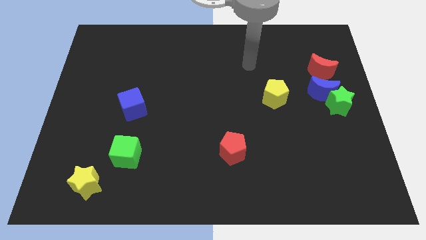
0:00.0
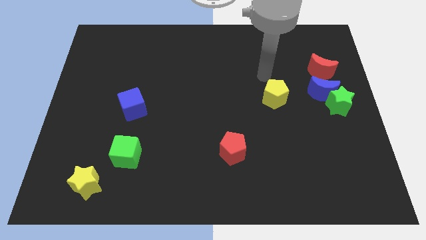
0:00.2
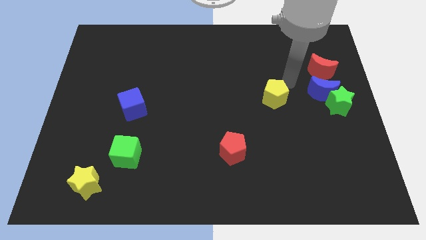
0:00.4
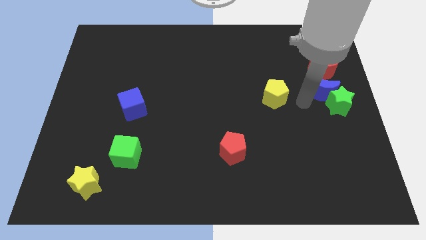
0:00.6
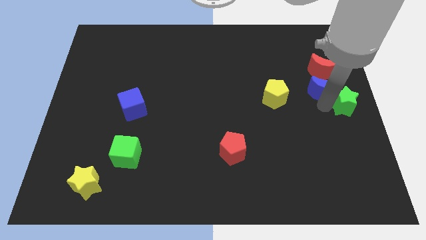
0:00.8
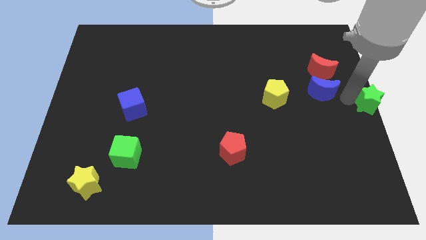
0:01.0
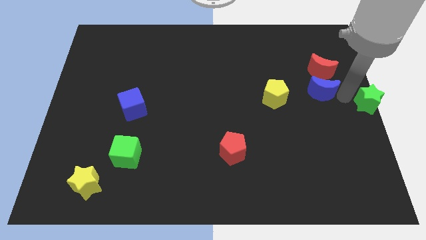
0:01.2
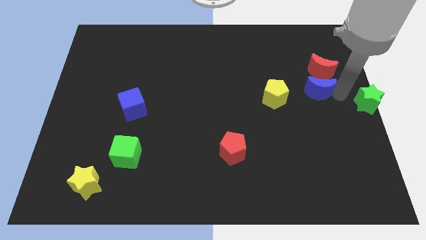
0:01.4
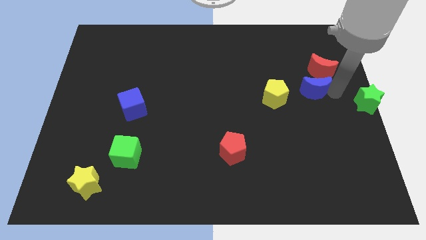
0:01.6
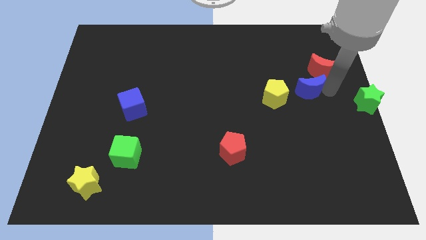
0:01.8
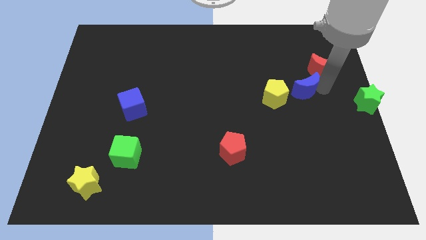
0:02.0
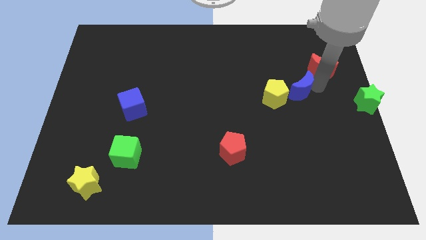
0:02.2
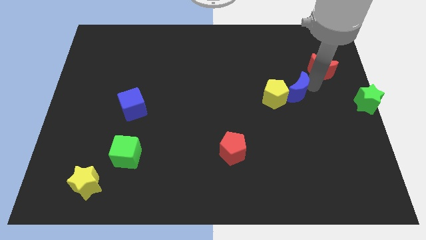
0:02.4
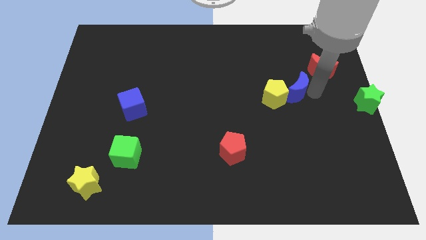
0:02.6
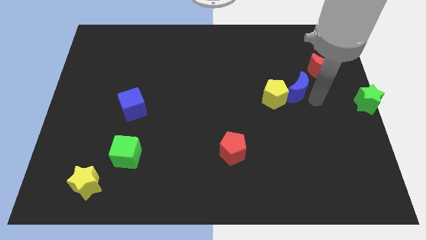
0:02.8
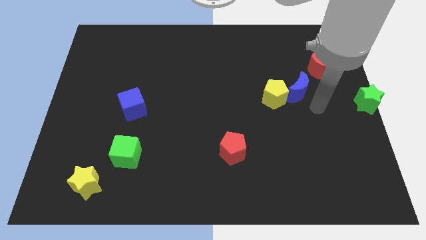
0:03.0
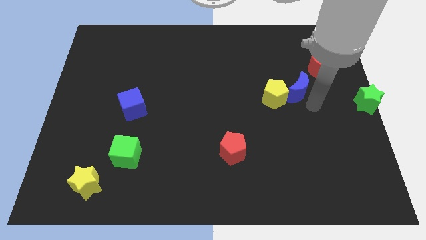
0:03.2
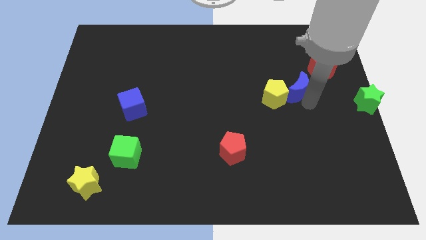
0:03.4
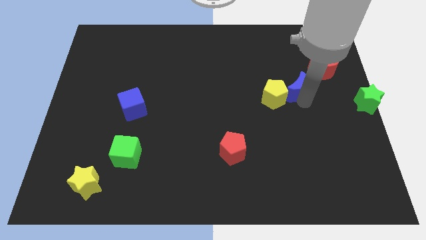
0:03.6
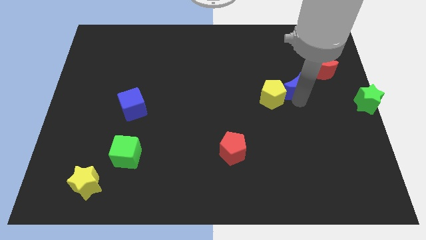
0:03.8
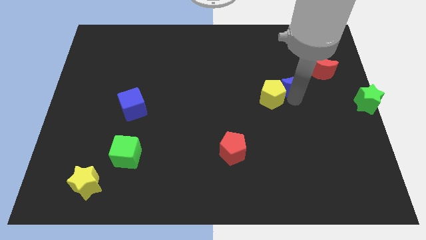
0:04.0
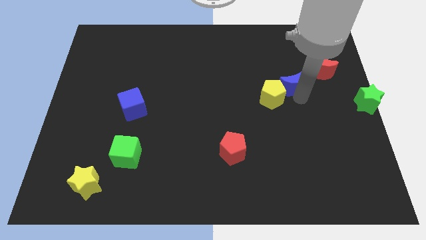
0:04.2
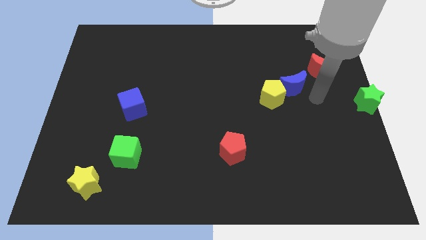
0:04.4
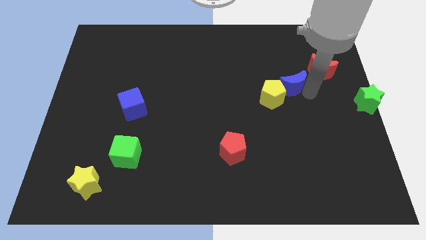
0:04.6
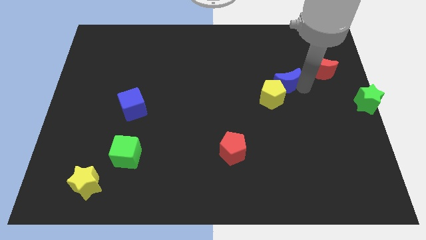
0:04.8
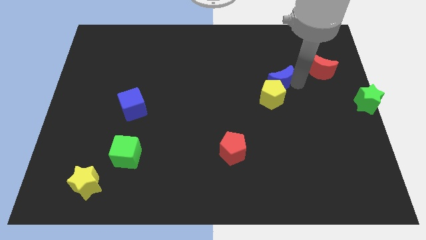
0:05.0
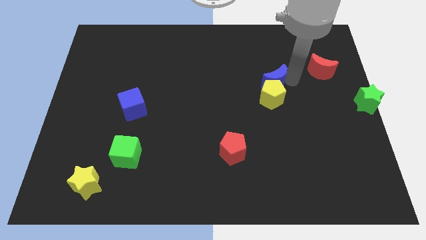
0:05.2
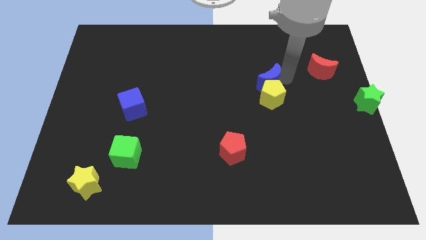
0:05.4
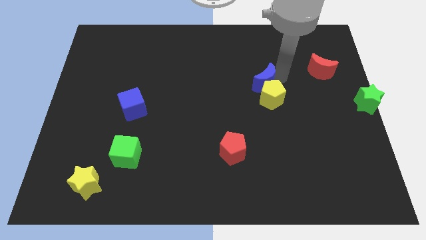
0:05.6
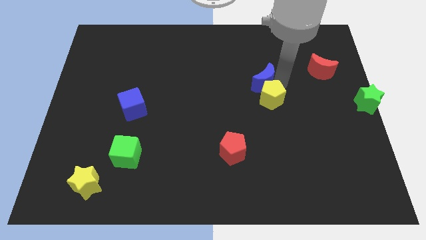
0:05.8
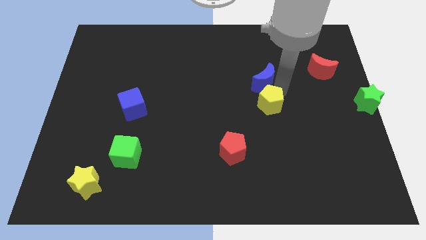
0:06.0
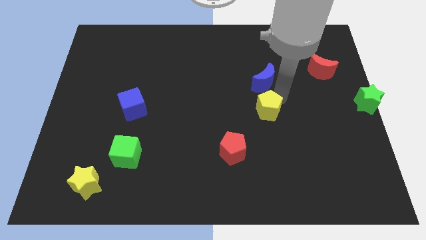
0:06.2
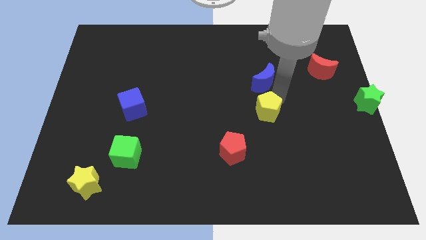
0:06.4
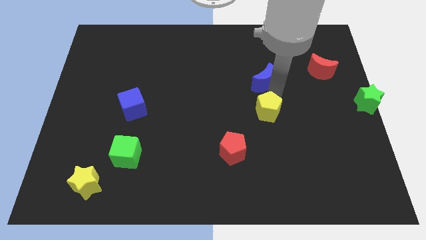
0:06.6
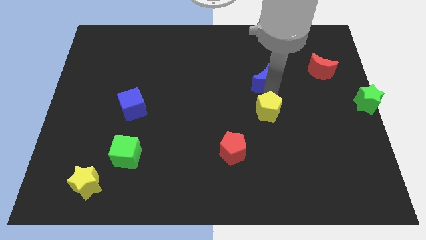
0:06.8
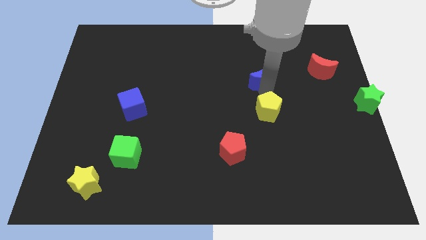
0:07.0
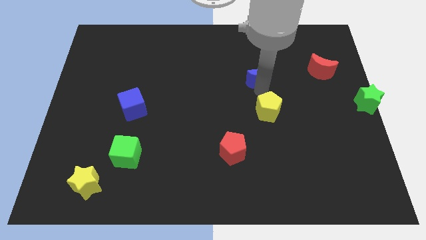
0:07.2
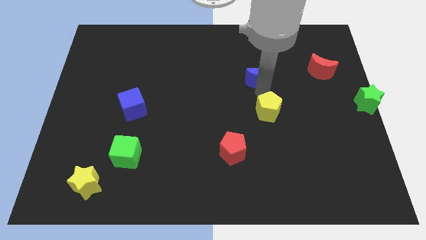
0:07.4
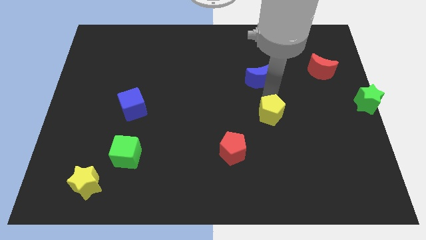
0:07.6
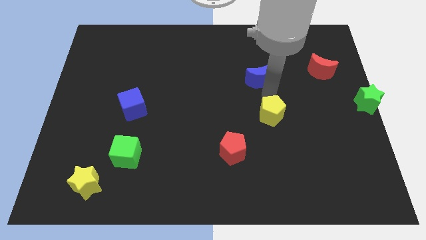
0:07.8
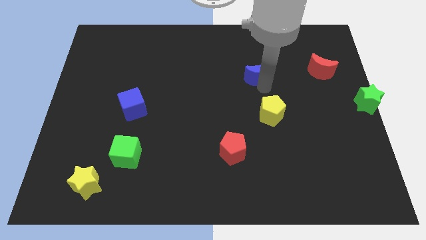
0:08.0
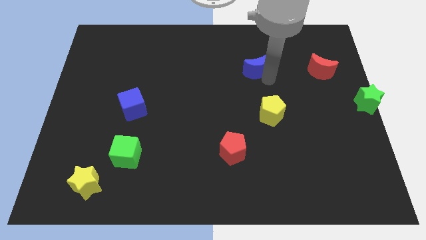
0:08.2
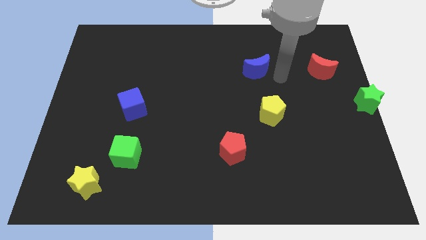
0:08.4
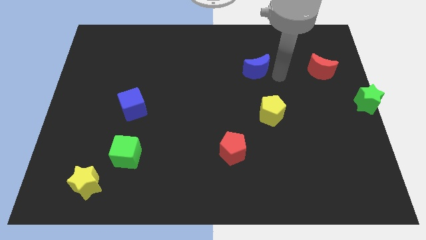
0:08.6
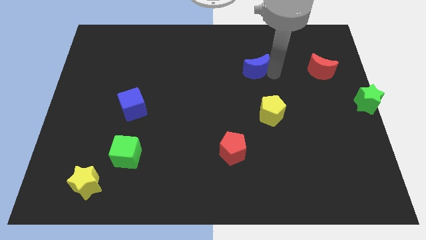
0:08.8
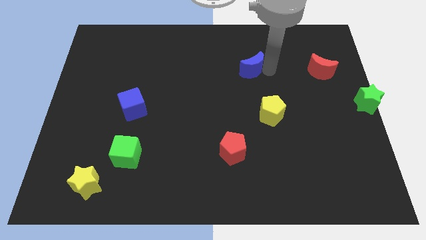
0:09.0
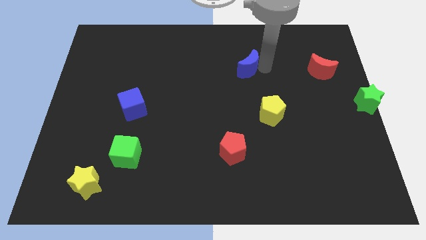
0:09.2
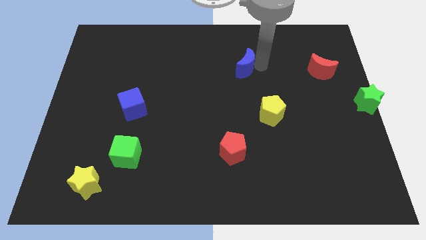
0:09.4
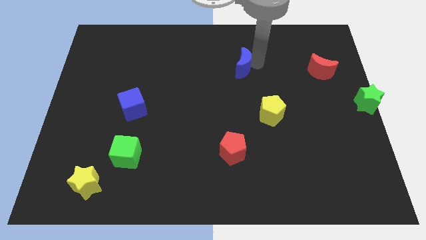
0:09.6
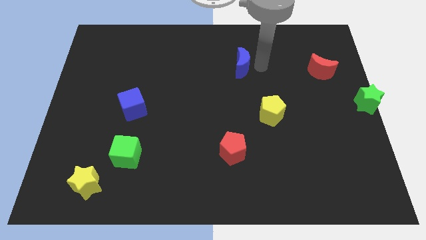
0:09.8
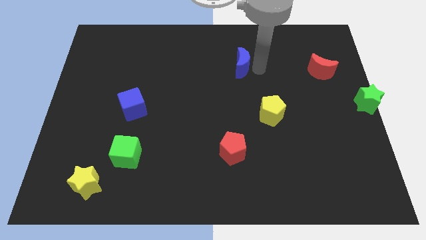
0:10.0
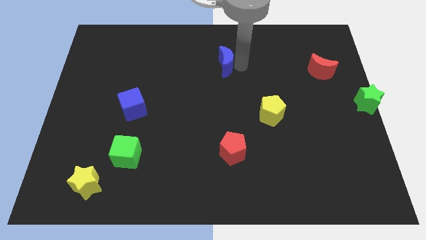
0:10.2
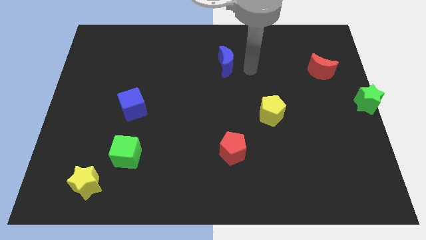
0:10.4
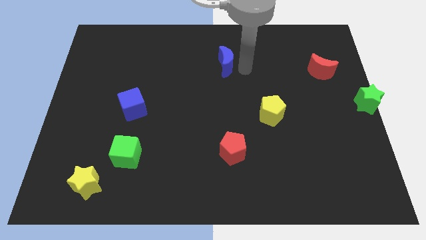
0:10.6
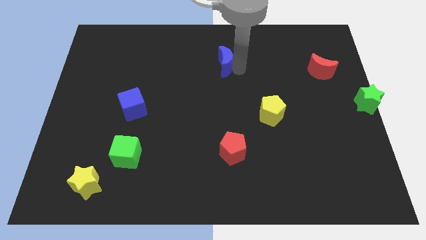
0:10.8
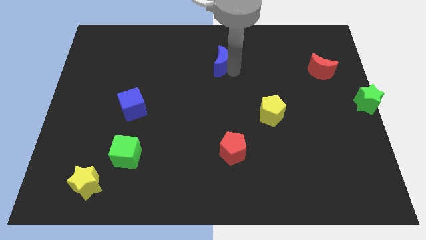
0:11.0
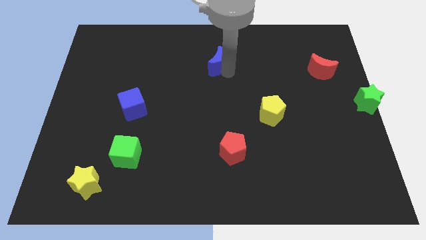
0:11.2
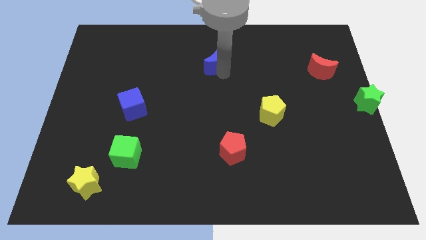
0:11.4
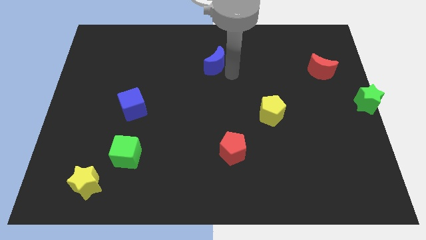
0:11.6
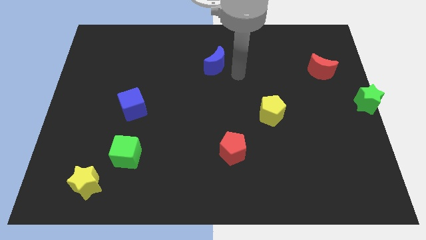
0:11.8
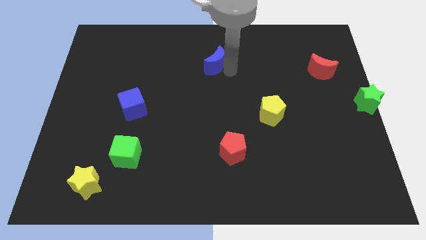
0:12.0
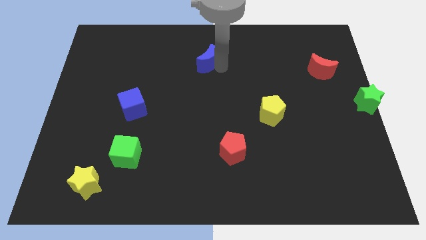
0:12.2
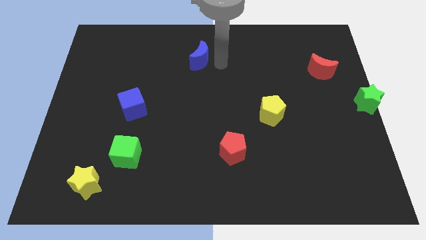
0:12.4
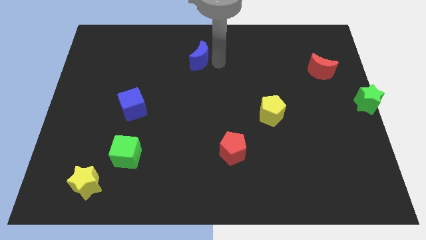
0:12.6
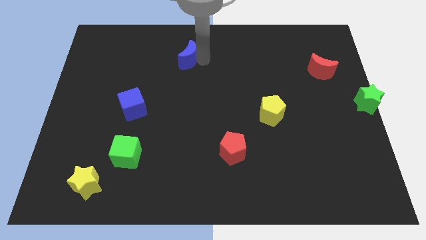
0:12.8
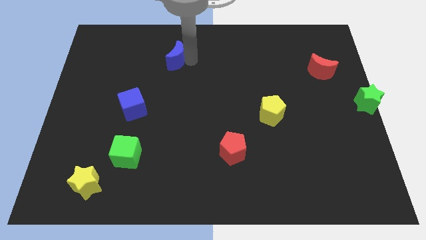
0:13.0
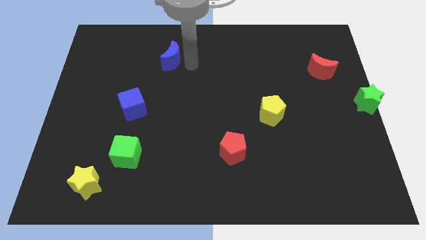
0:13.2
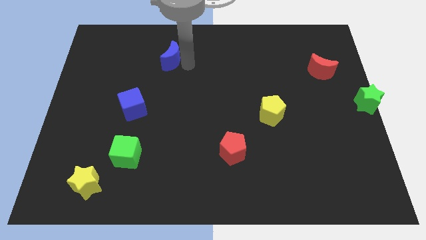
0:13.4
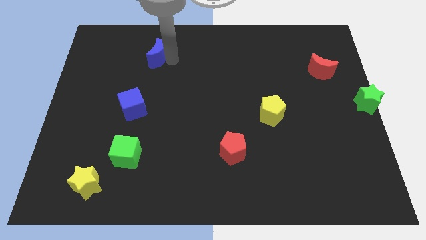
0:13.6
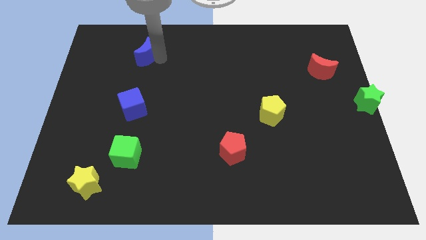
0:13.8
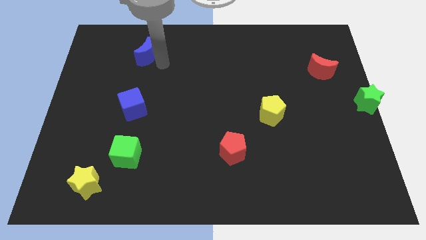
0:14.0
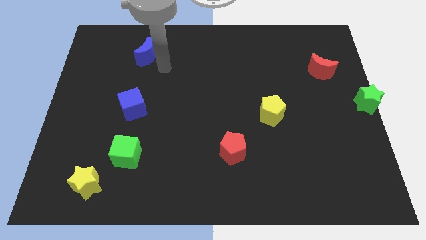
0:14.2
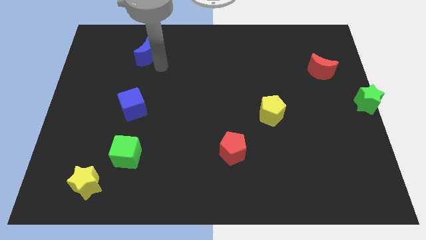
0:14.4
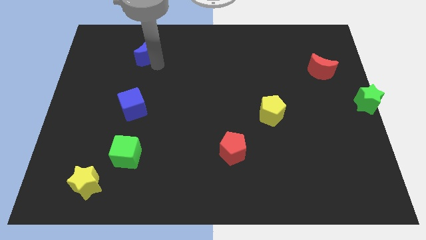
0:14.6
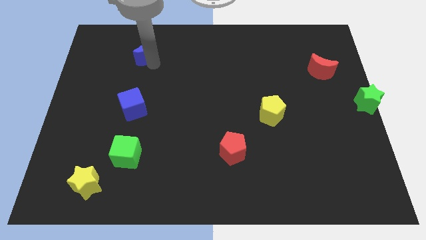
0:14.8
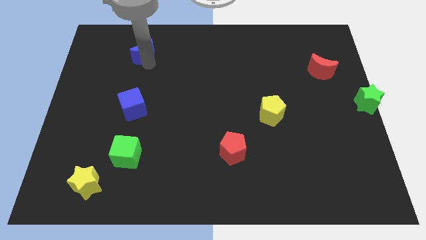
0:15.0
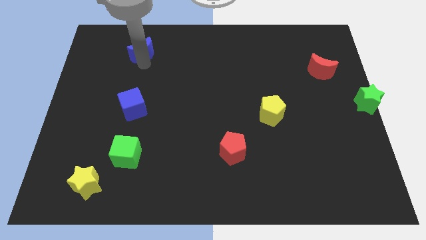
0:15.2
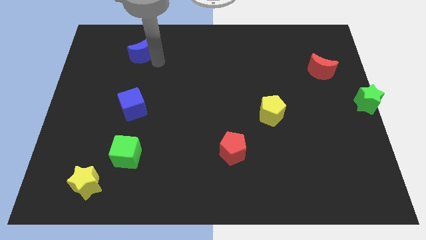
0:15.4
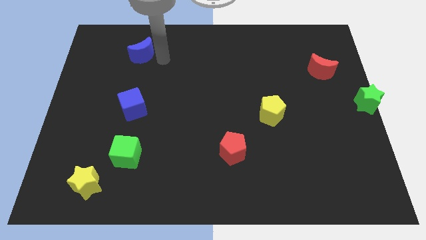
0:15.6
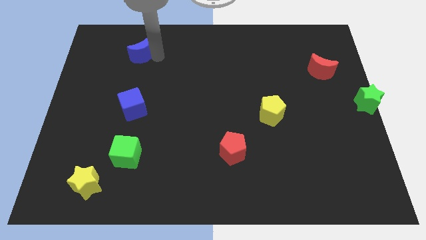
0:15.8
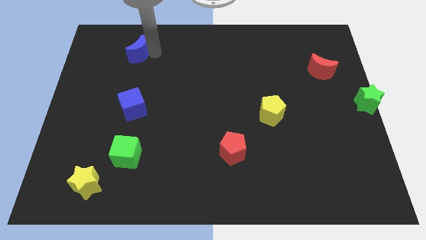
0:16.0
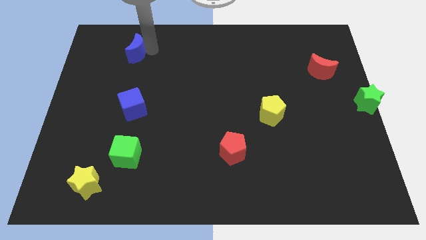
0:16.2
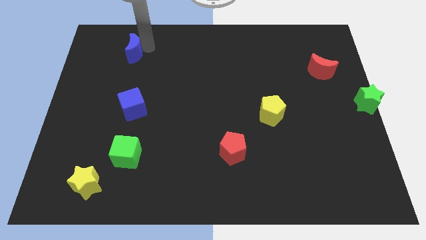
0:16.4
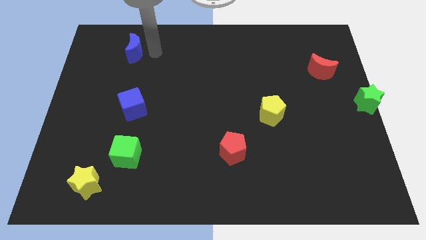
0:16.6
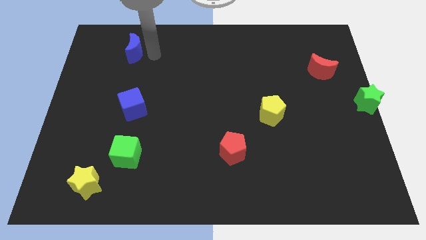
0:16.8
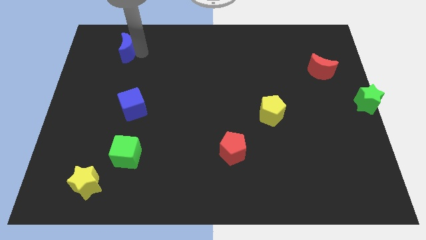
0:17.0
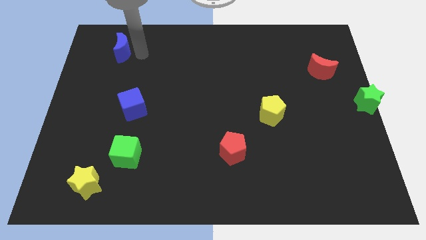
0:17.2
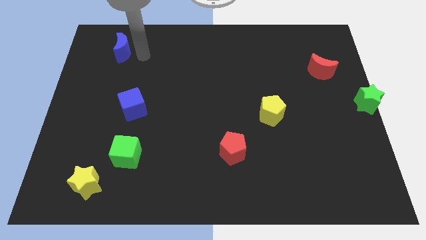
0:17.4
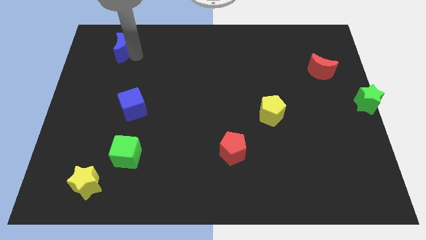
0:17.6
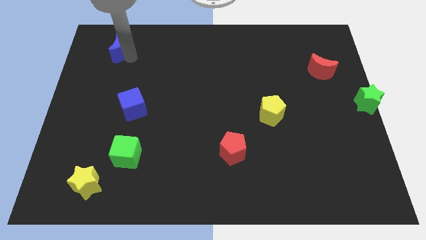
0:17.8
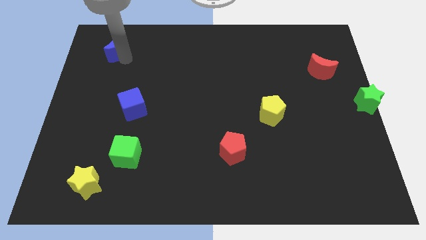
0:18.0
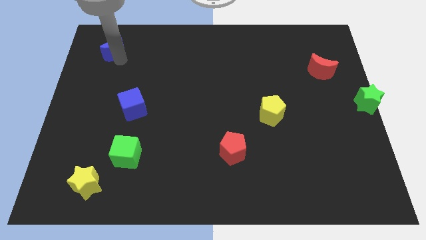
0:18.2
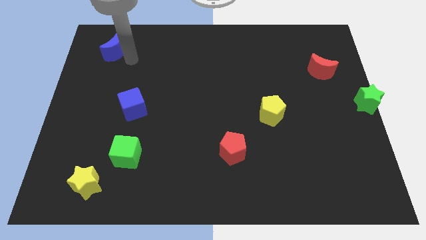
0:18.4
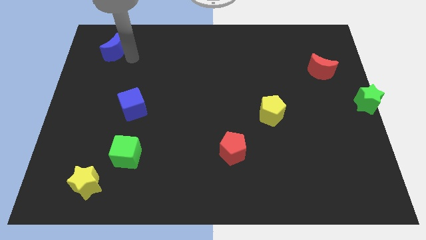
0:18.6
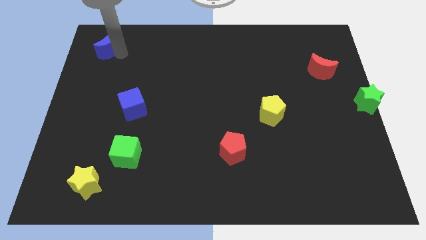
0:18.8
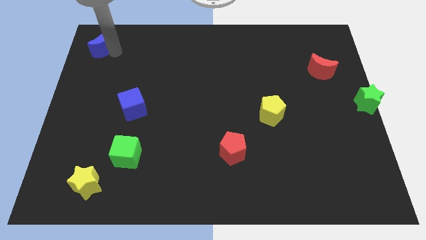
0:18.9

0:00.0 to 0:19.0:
put the blue moon to the upper left corner
